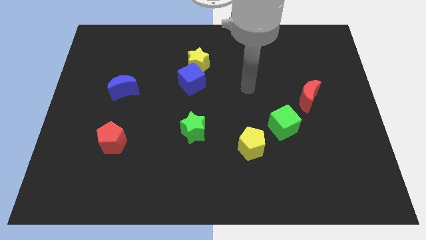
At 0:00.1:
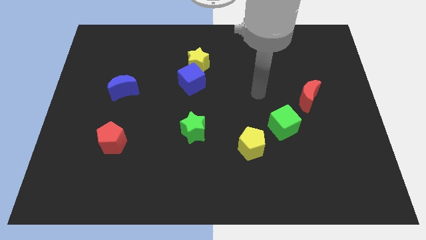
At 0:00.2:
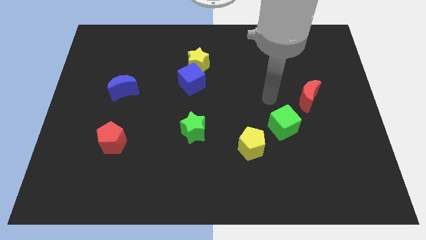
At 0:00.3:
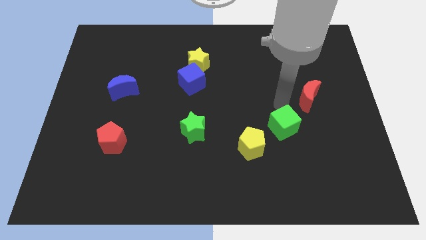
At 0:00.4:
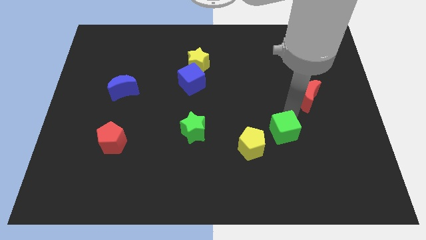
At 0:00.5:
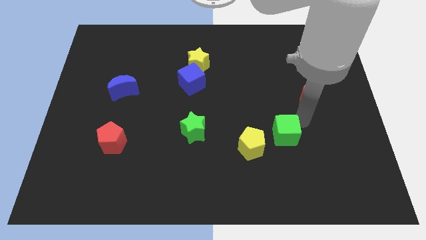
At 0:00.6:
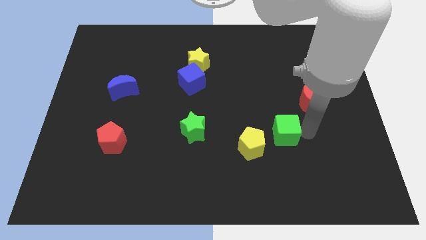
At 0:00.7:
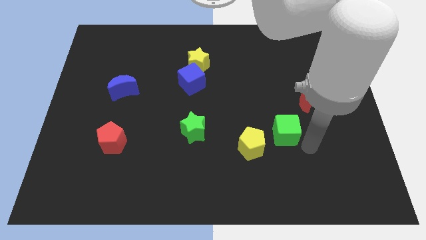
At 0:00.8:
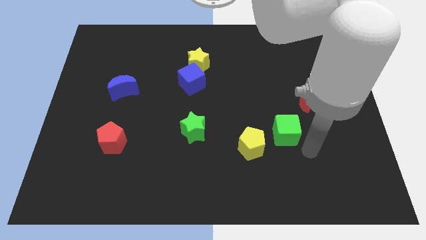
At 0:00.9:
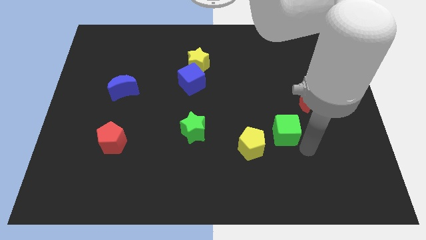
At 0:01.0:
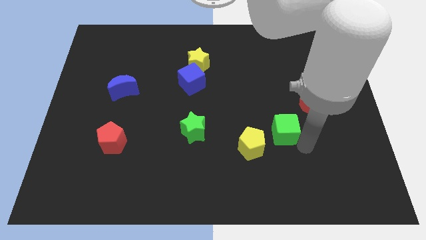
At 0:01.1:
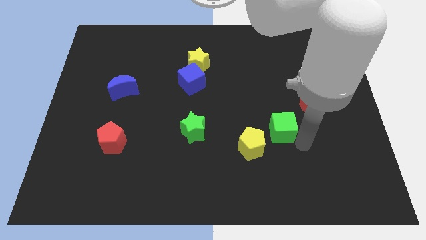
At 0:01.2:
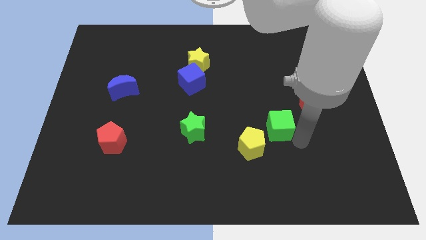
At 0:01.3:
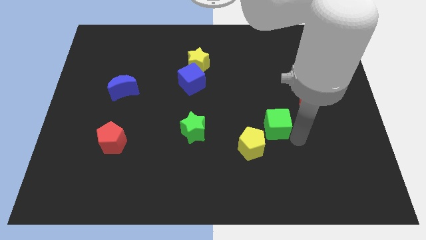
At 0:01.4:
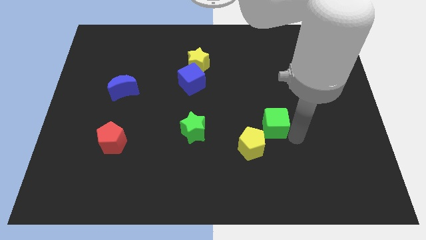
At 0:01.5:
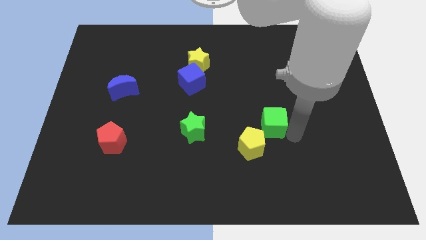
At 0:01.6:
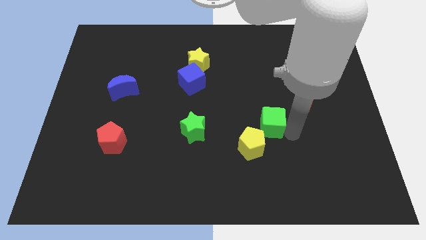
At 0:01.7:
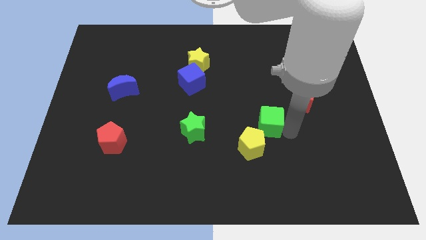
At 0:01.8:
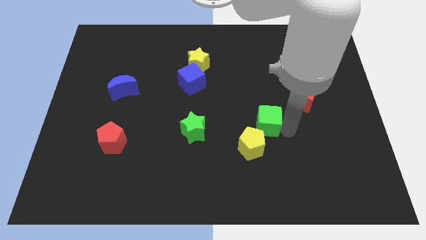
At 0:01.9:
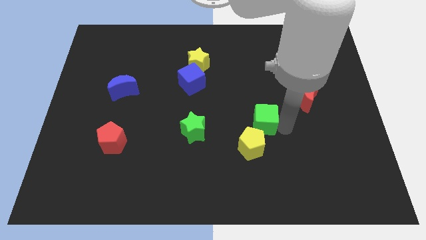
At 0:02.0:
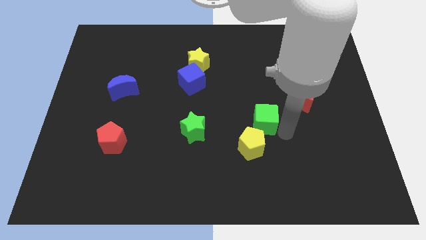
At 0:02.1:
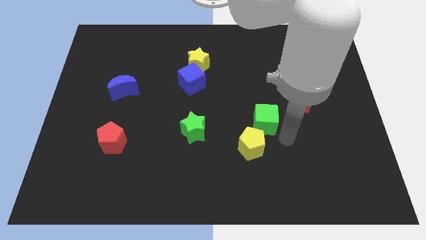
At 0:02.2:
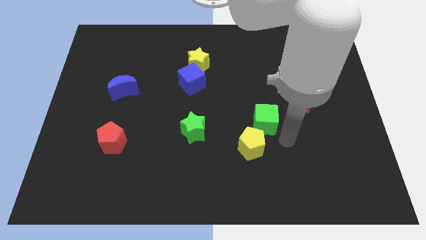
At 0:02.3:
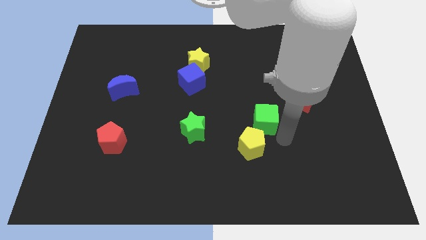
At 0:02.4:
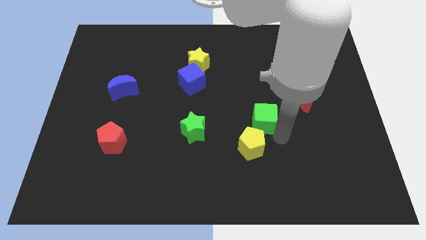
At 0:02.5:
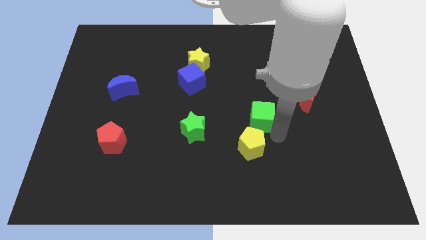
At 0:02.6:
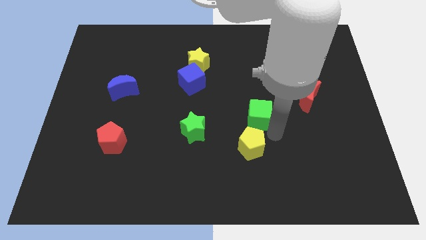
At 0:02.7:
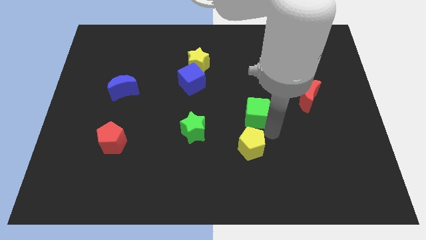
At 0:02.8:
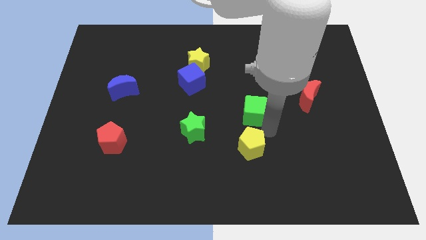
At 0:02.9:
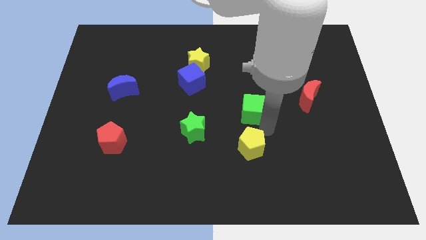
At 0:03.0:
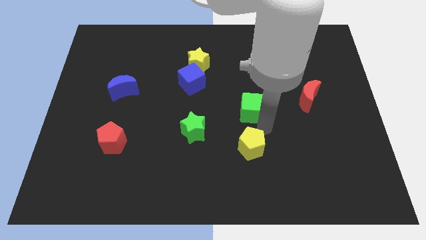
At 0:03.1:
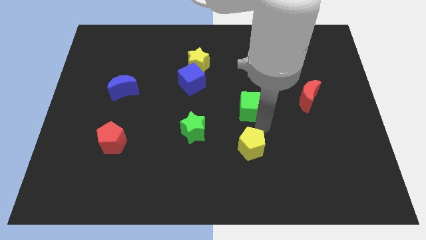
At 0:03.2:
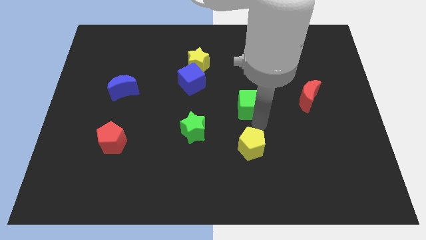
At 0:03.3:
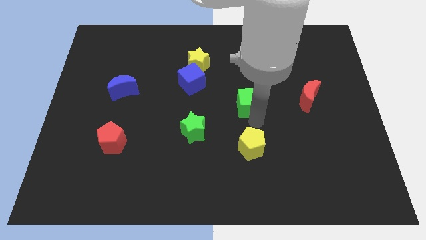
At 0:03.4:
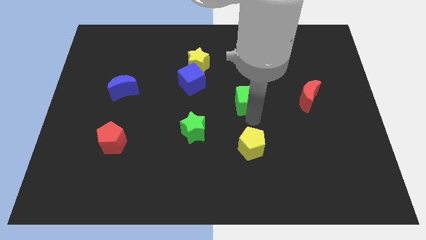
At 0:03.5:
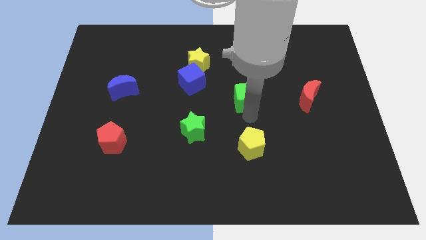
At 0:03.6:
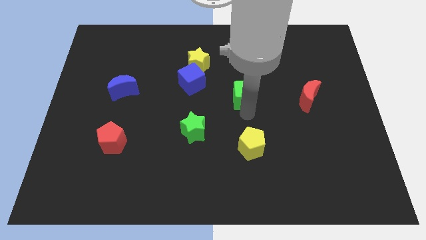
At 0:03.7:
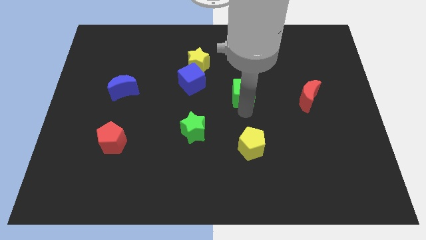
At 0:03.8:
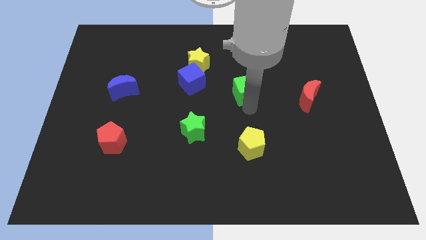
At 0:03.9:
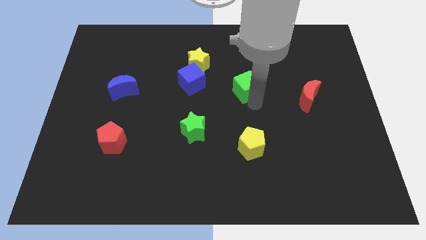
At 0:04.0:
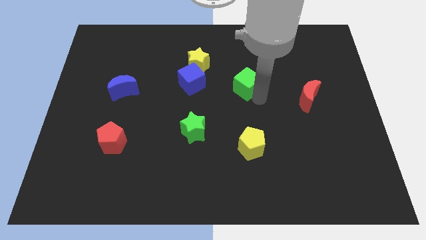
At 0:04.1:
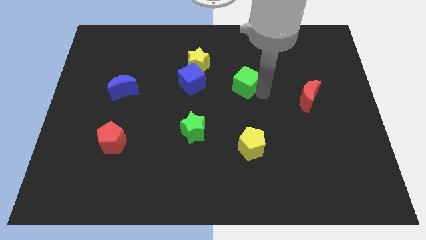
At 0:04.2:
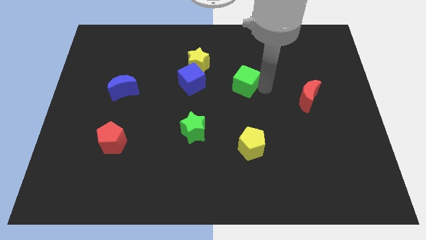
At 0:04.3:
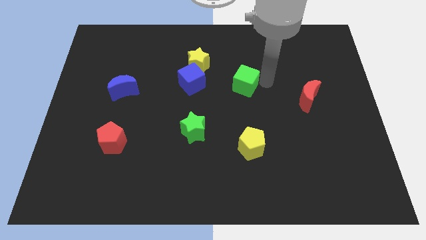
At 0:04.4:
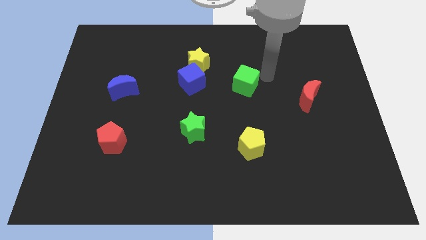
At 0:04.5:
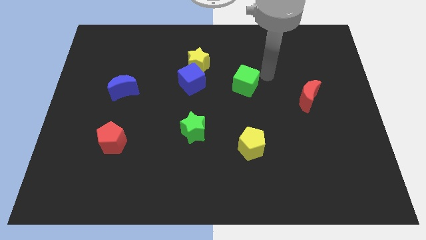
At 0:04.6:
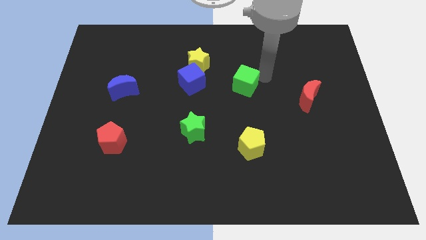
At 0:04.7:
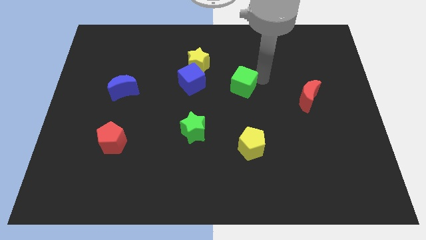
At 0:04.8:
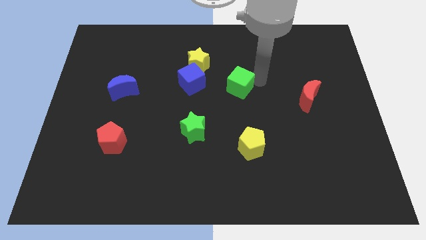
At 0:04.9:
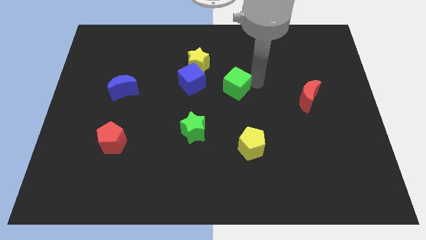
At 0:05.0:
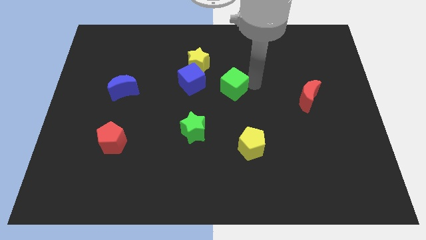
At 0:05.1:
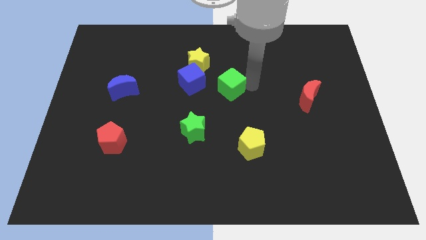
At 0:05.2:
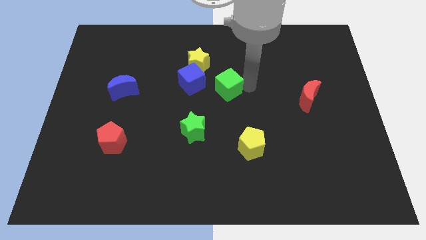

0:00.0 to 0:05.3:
push the green cube to the bottom right of the blue cube

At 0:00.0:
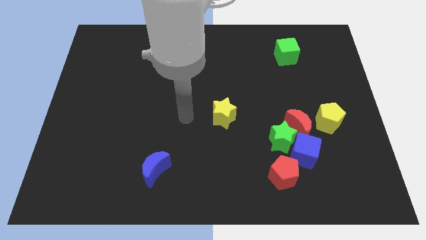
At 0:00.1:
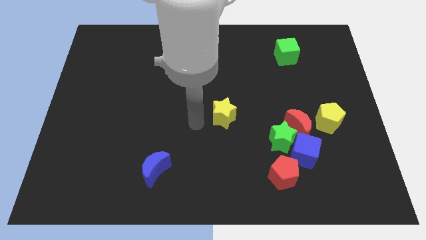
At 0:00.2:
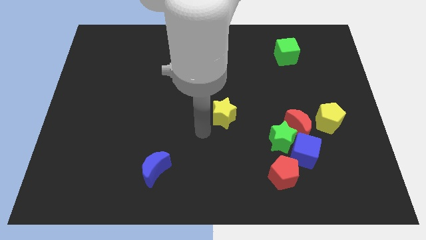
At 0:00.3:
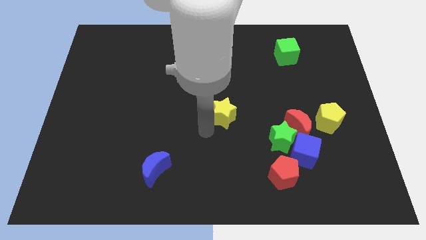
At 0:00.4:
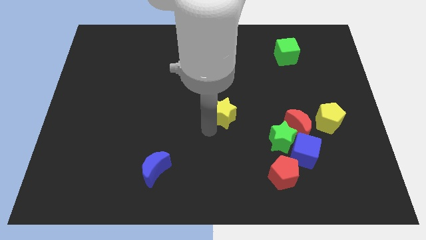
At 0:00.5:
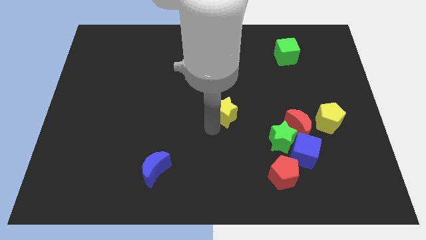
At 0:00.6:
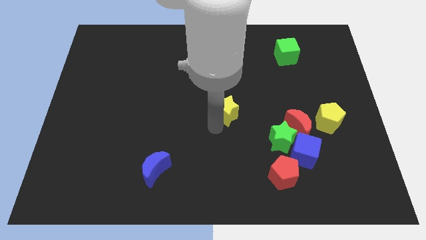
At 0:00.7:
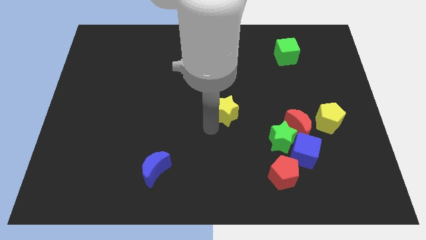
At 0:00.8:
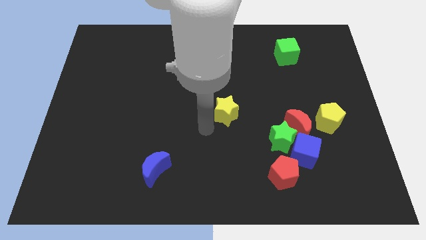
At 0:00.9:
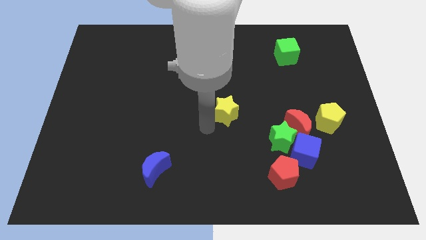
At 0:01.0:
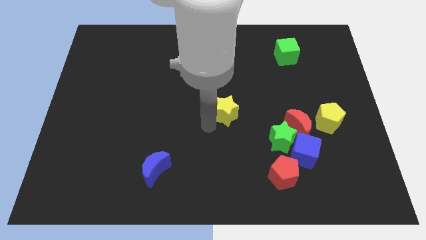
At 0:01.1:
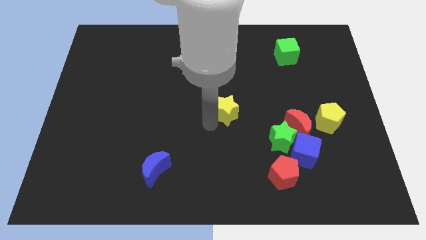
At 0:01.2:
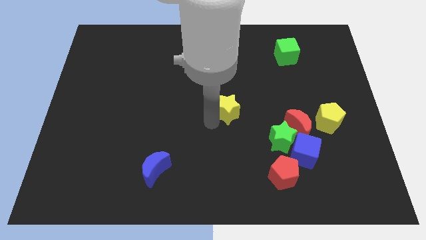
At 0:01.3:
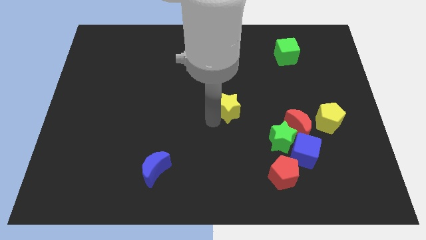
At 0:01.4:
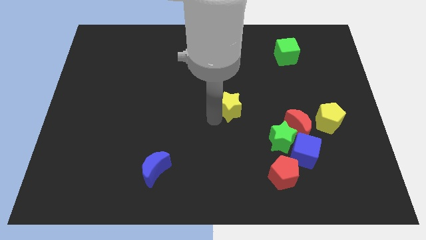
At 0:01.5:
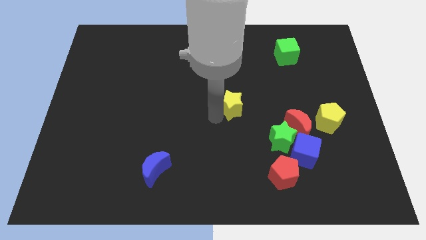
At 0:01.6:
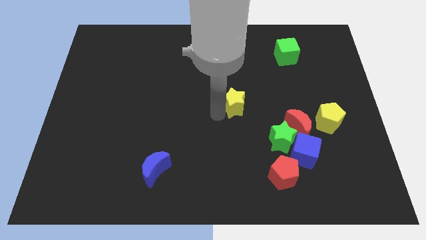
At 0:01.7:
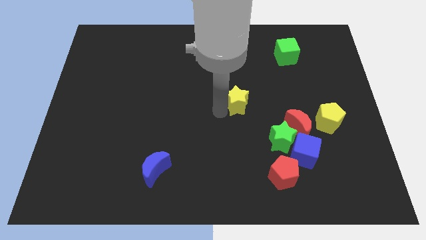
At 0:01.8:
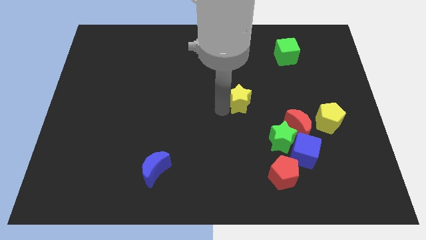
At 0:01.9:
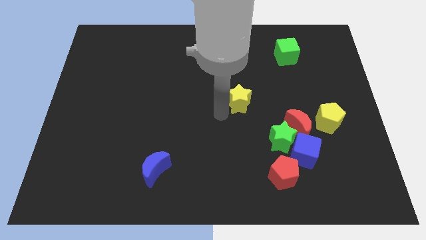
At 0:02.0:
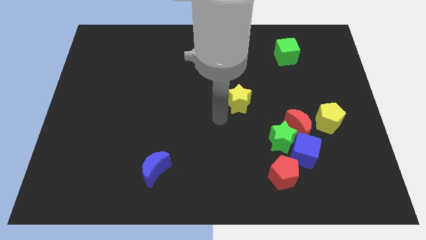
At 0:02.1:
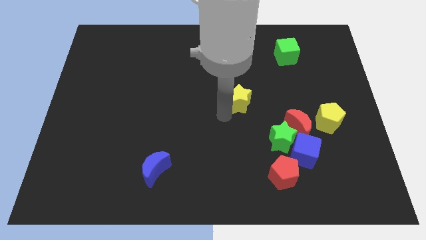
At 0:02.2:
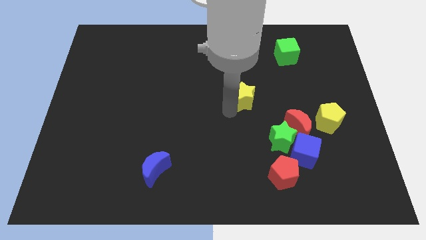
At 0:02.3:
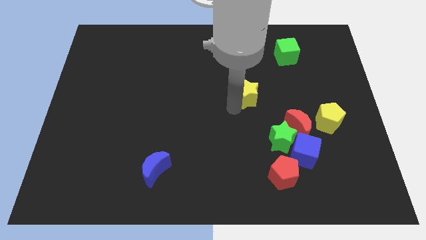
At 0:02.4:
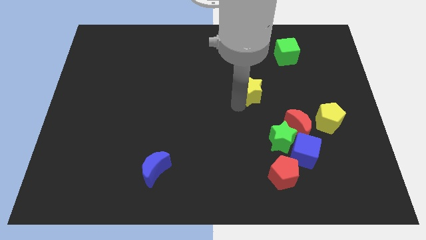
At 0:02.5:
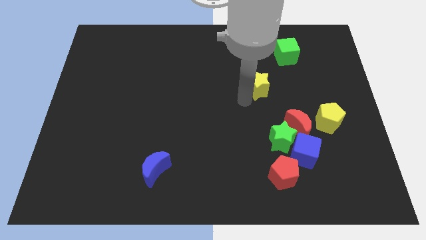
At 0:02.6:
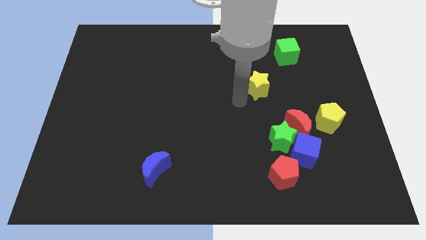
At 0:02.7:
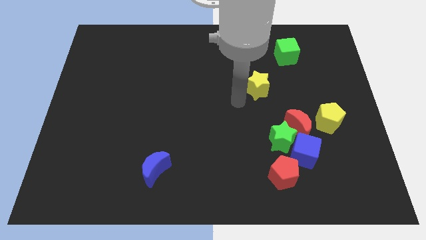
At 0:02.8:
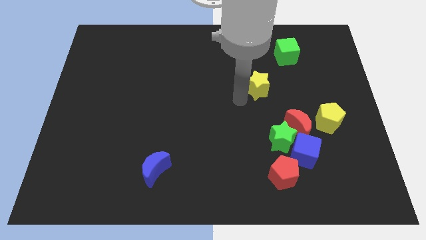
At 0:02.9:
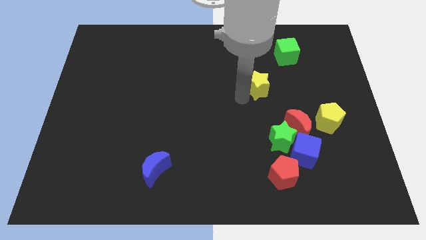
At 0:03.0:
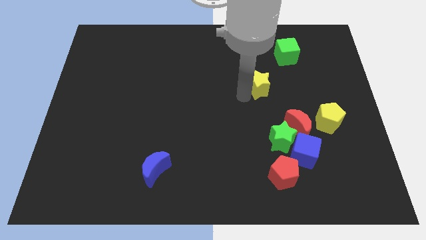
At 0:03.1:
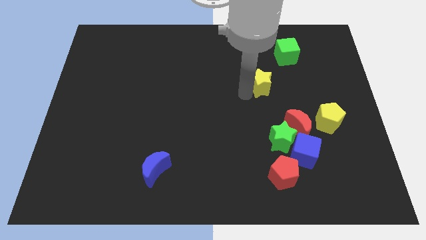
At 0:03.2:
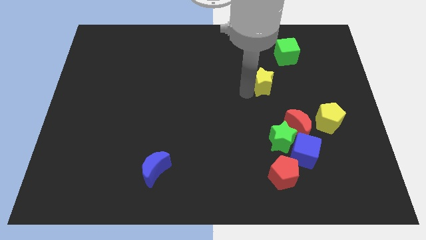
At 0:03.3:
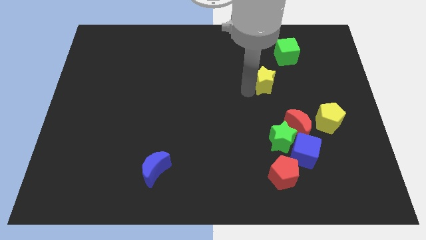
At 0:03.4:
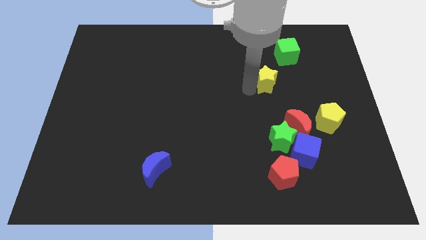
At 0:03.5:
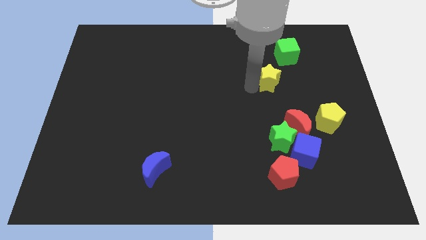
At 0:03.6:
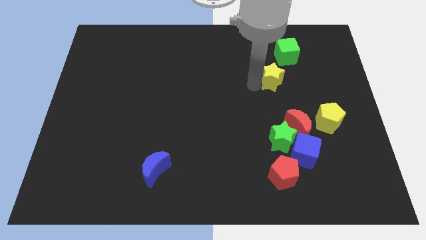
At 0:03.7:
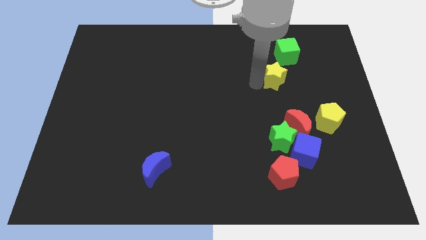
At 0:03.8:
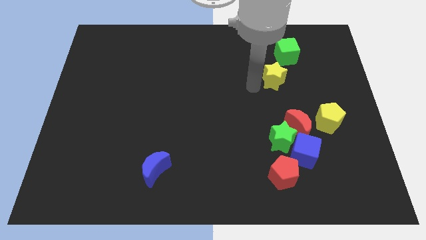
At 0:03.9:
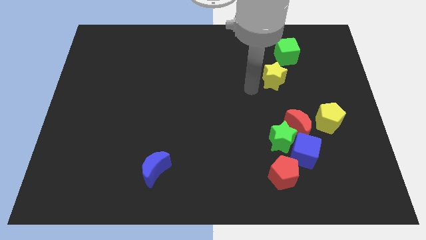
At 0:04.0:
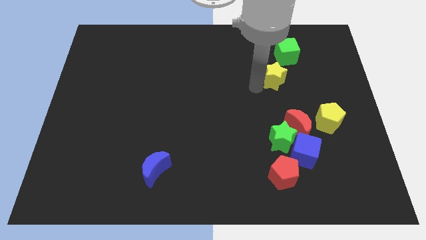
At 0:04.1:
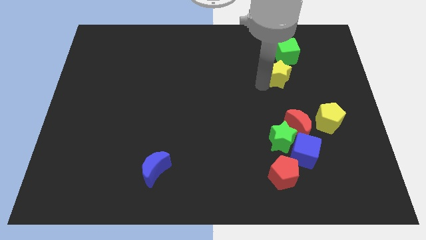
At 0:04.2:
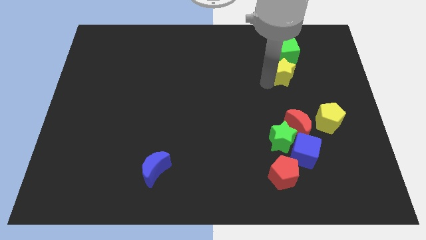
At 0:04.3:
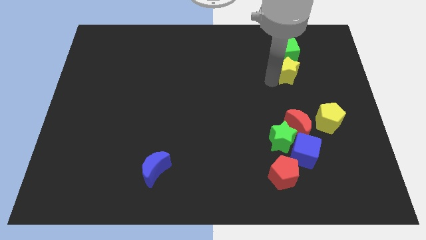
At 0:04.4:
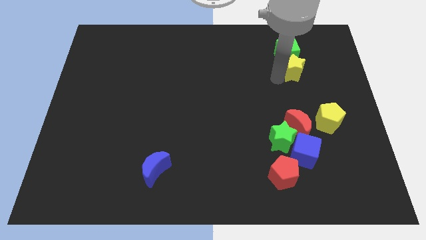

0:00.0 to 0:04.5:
slide the yellow star to the bottom right of the green cube
